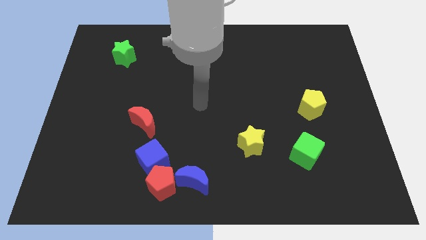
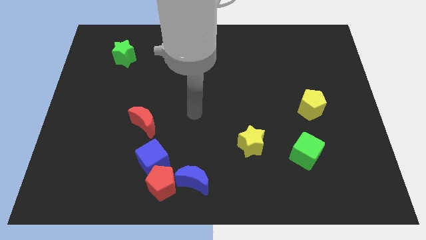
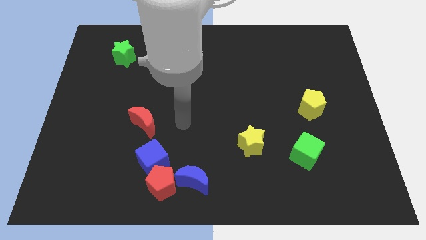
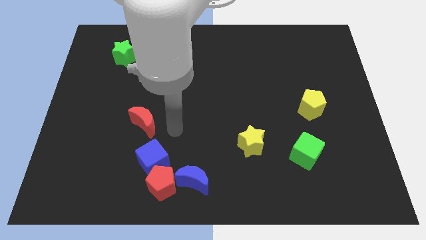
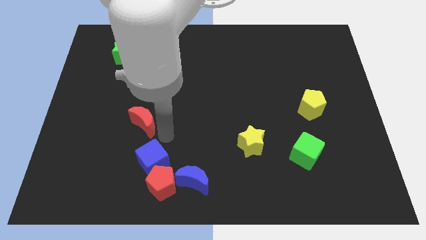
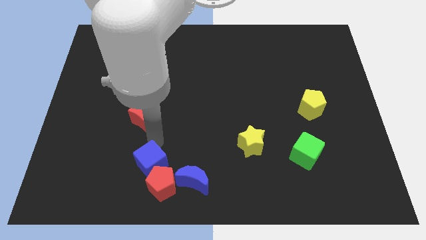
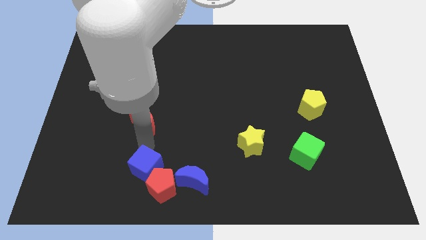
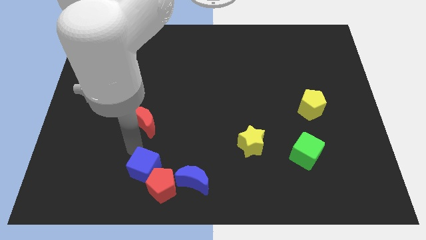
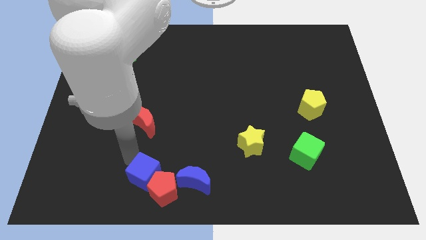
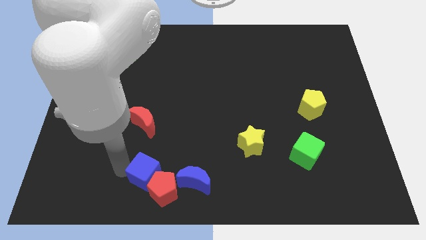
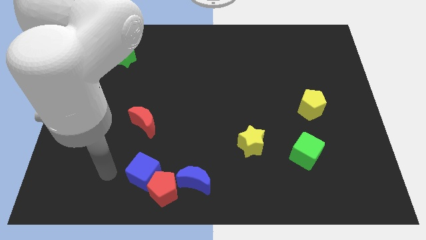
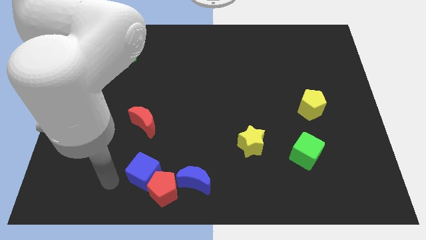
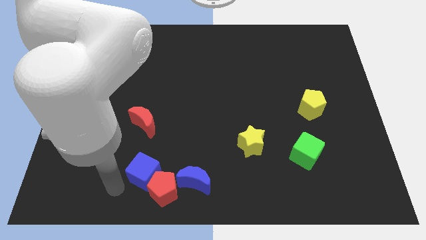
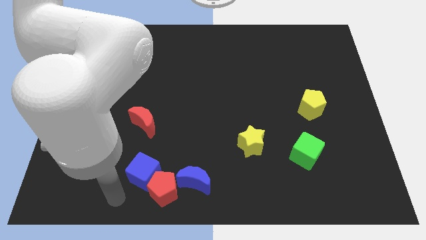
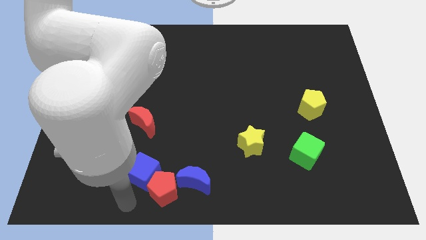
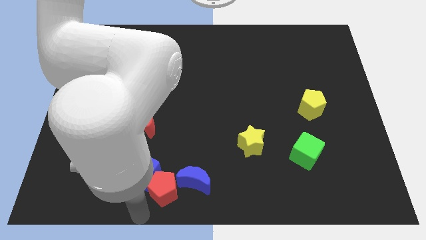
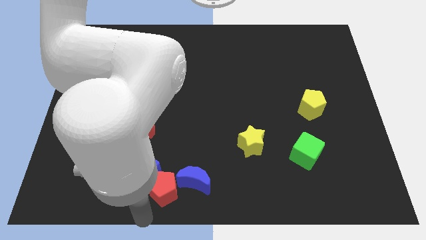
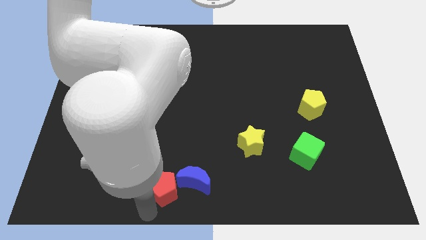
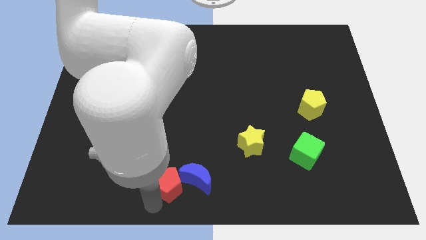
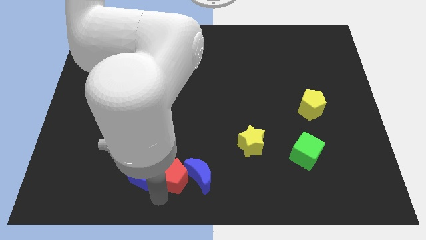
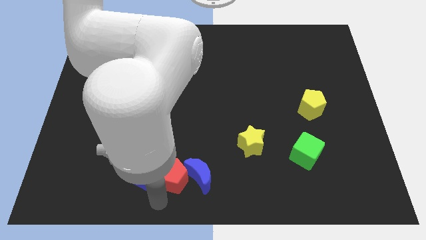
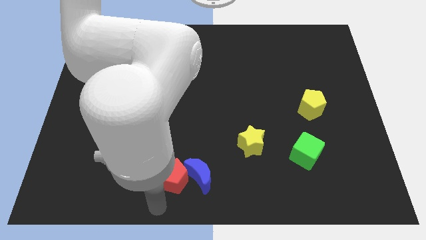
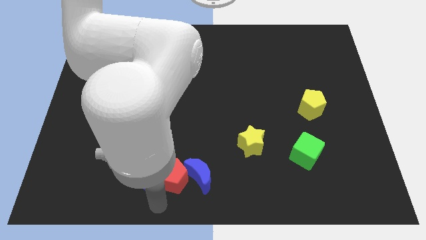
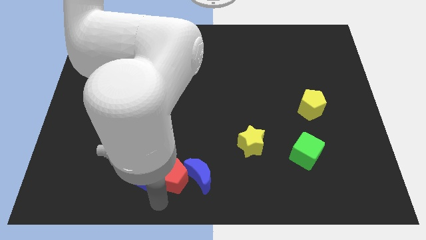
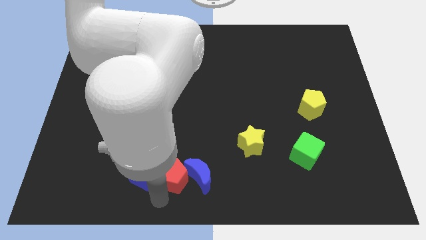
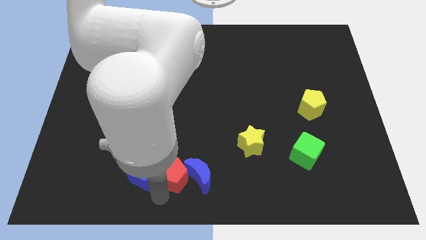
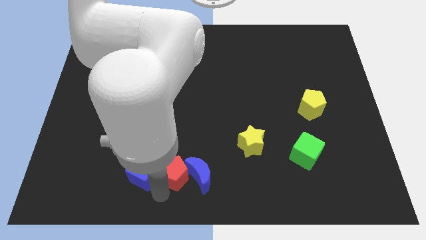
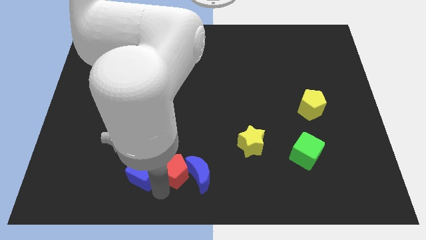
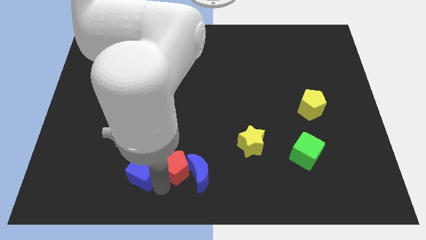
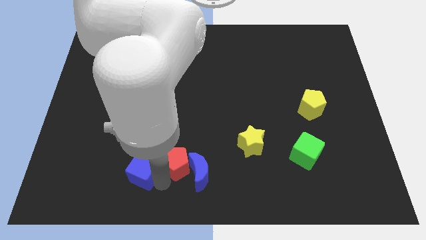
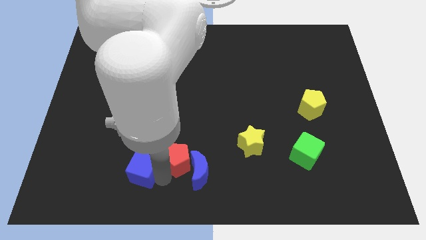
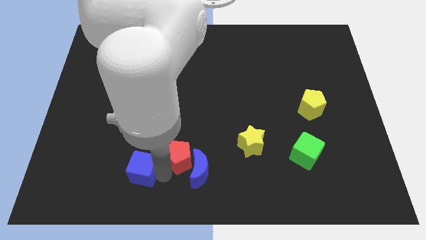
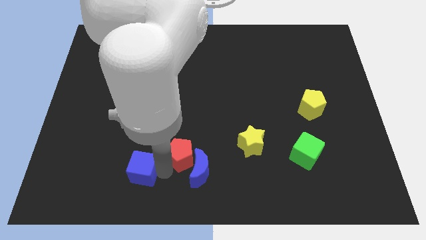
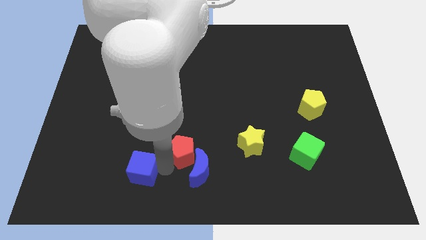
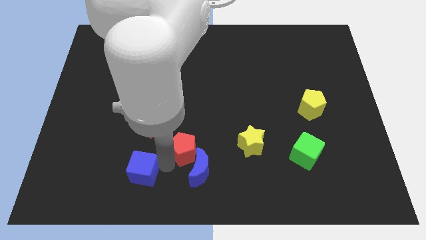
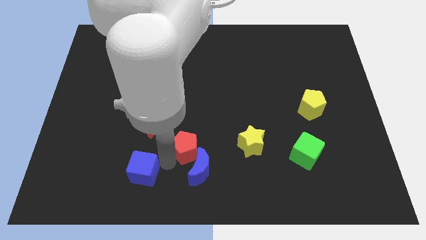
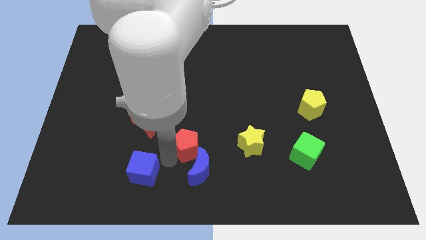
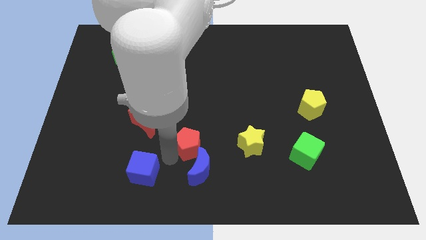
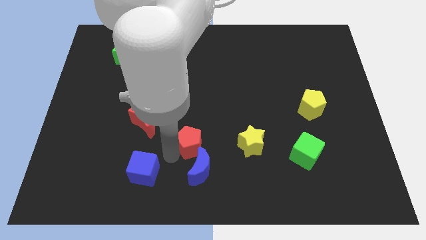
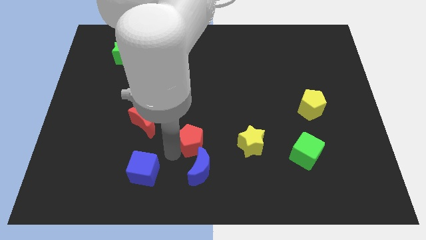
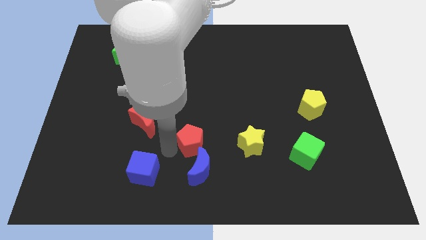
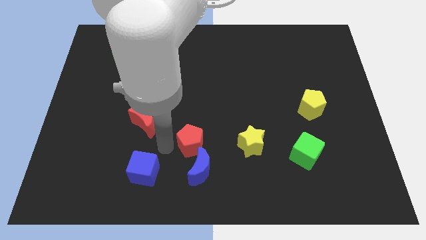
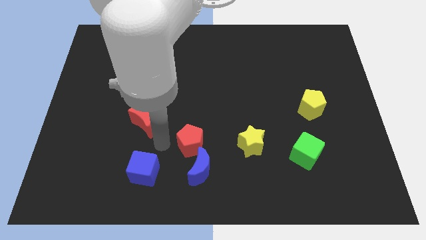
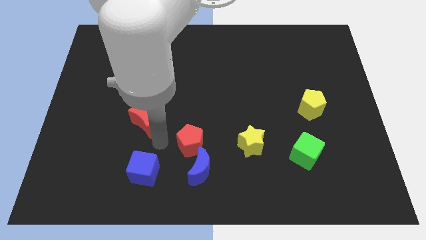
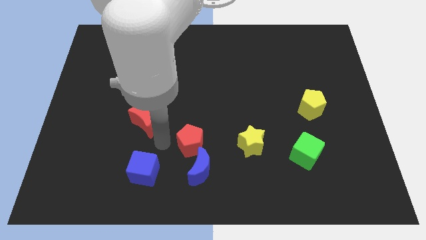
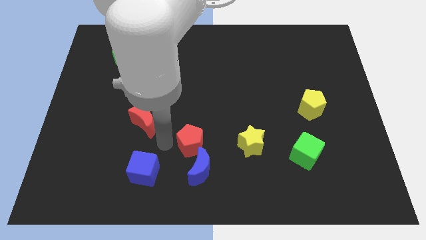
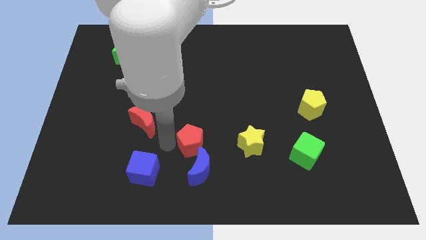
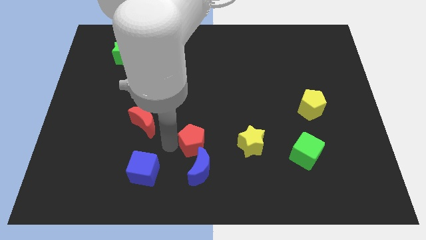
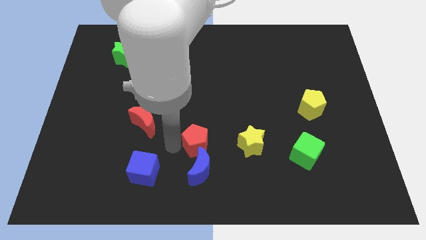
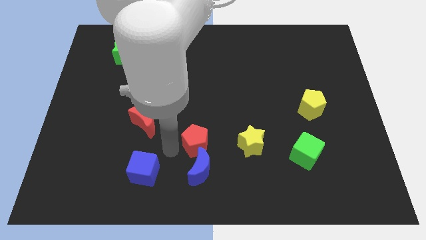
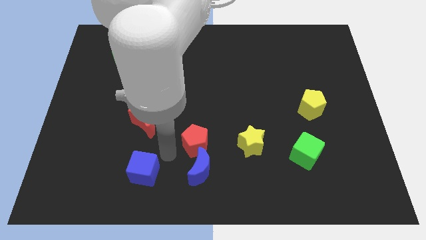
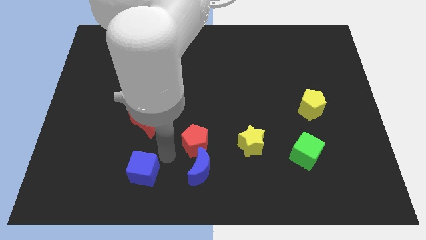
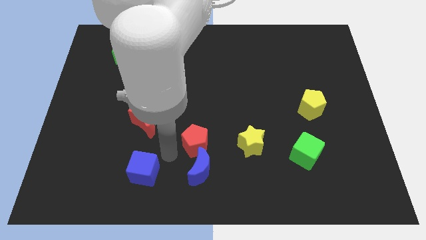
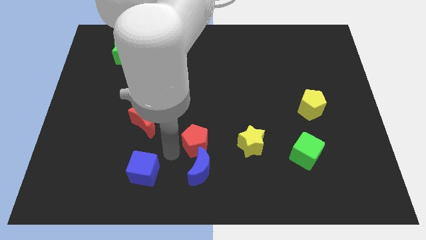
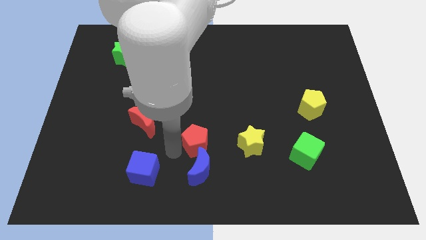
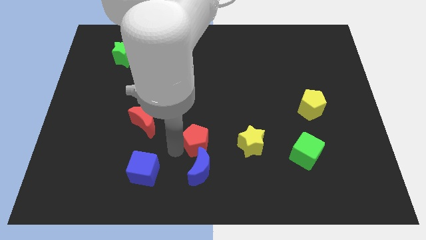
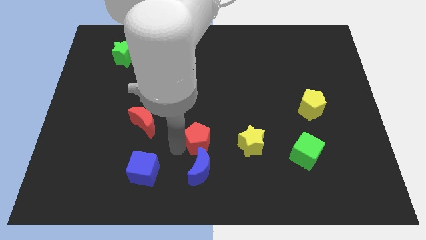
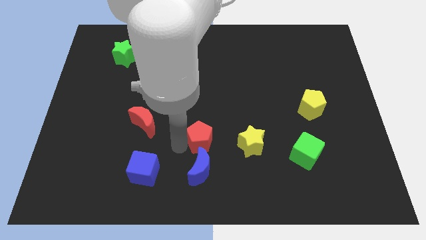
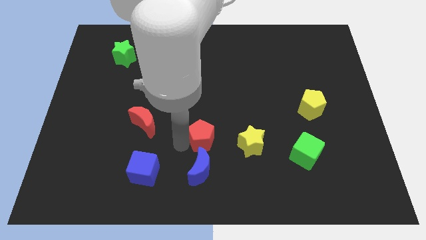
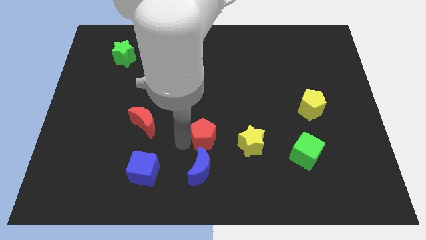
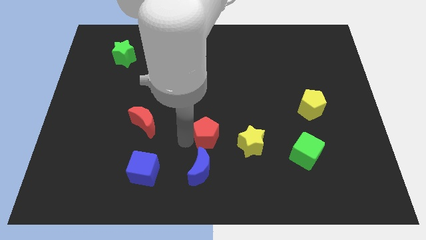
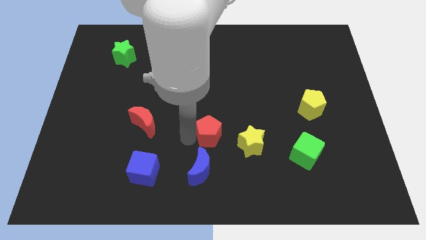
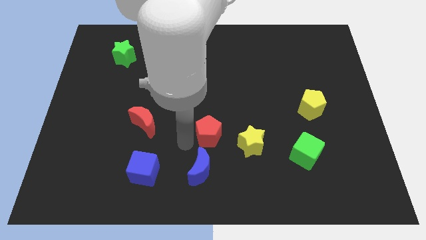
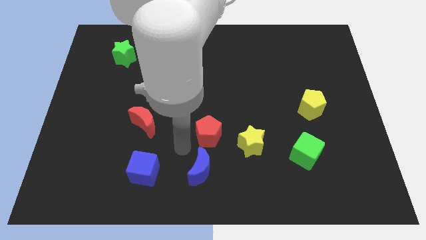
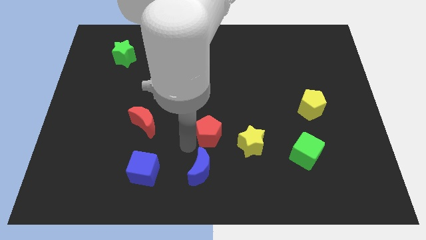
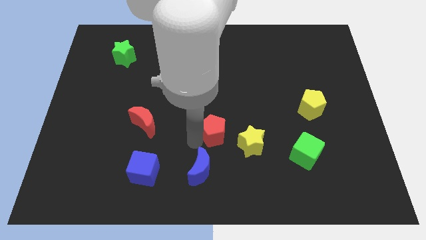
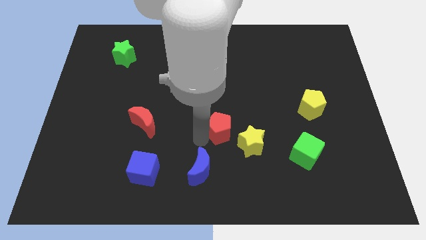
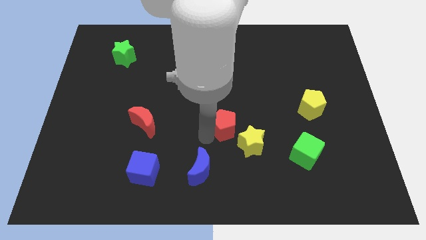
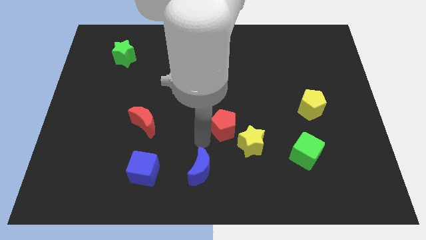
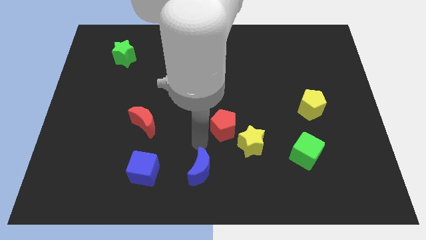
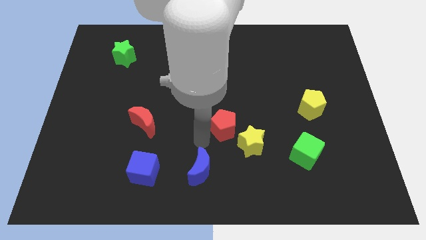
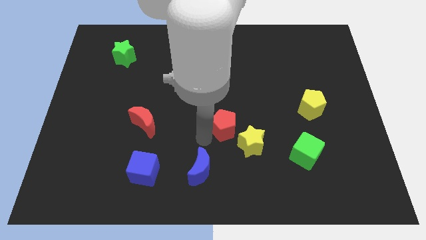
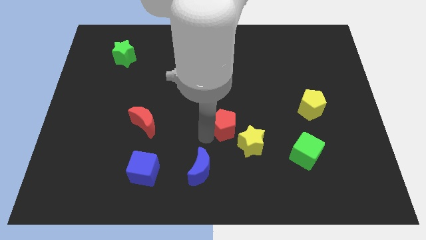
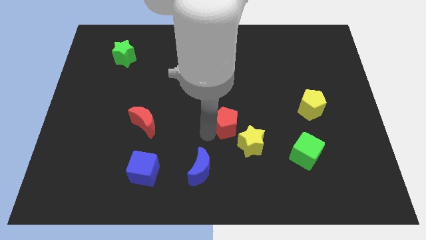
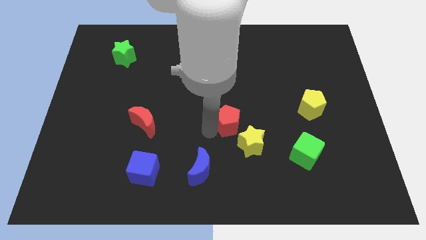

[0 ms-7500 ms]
move the red pentagon upwards and then right

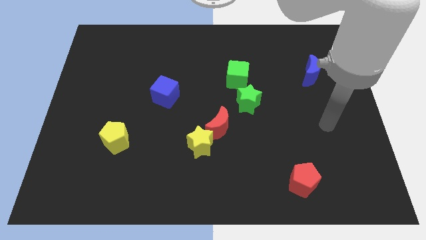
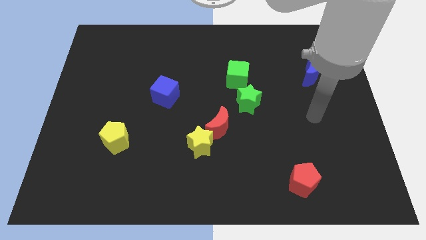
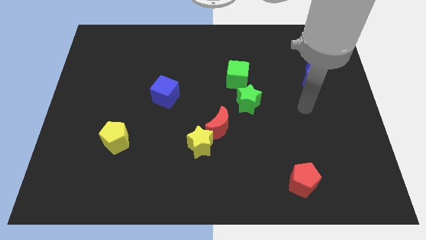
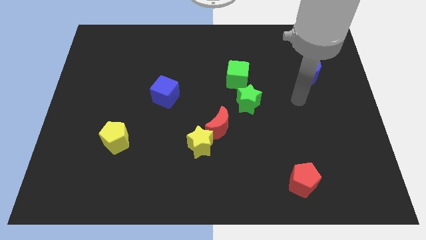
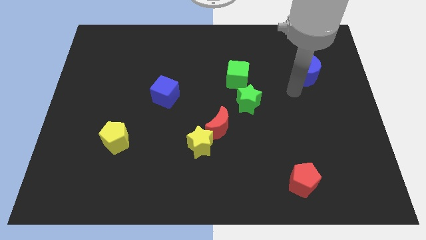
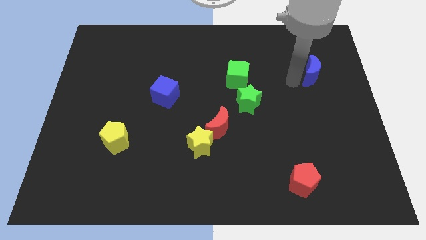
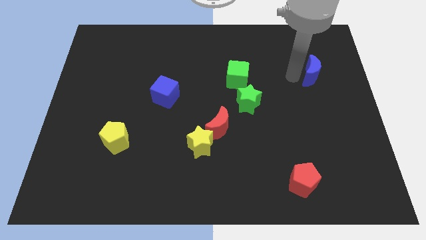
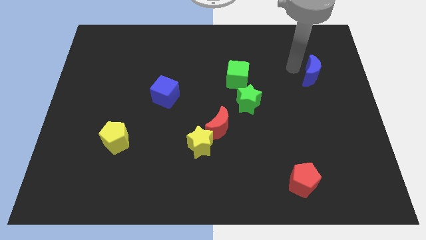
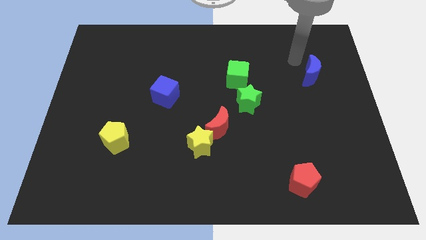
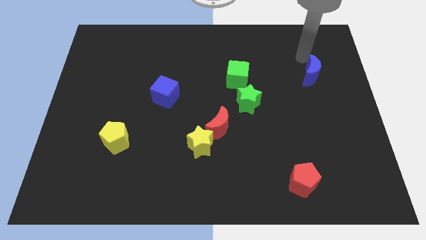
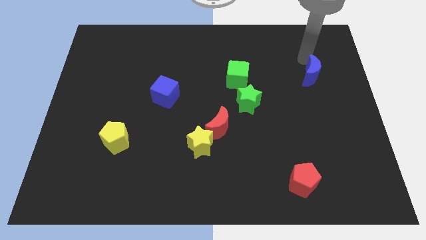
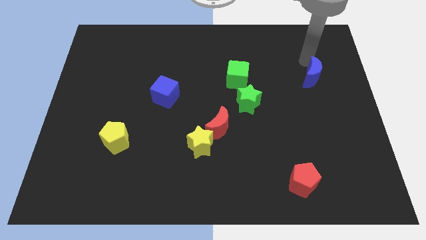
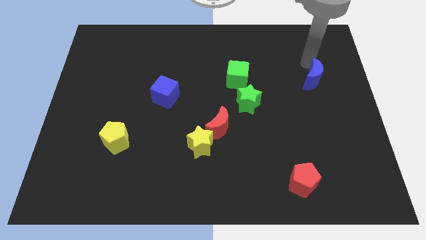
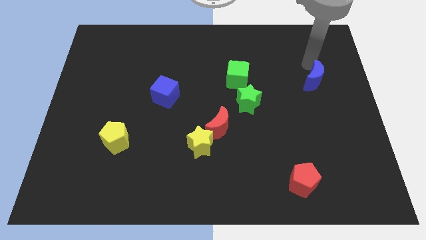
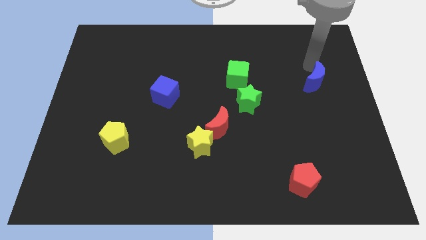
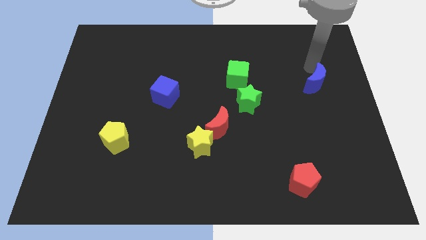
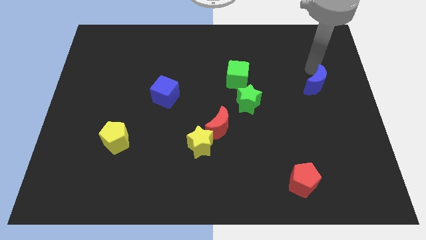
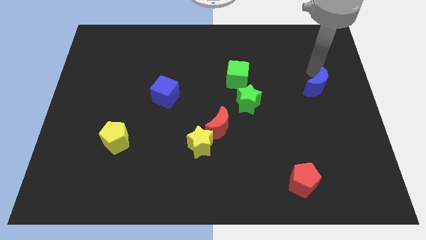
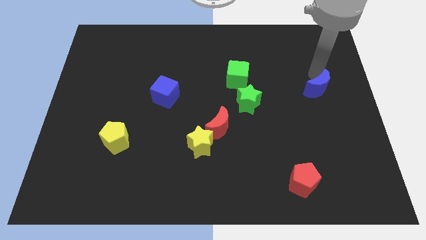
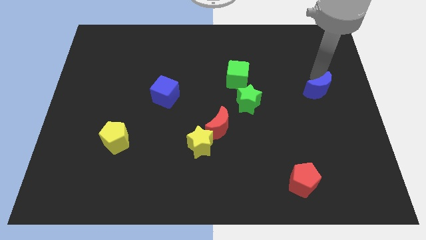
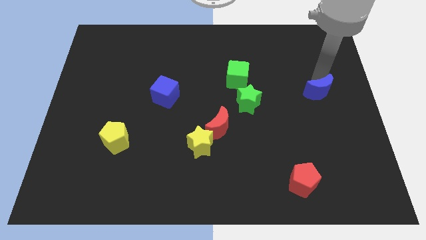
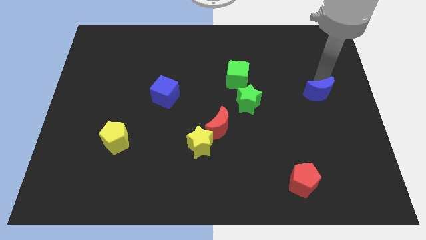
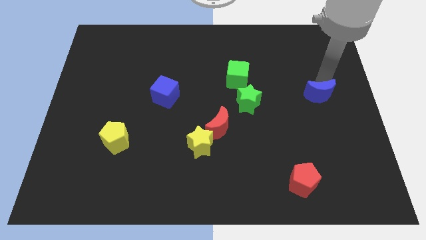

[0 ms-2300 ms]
slide the blue moon downwards somewhat
